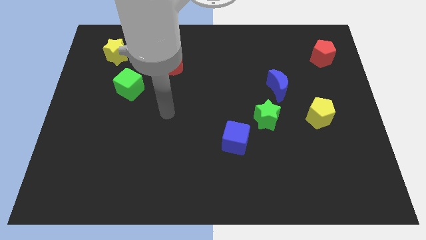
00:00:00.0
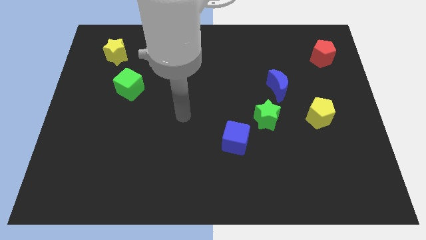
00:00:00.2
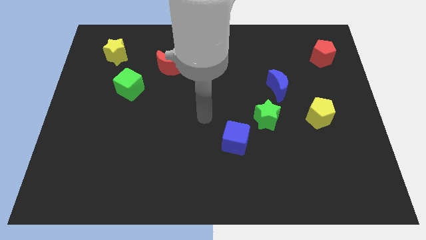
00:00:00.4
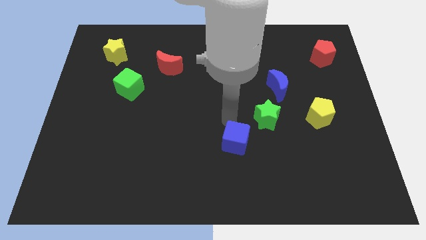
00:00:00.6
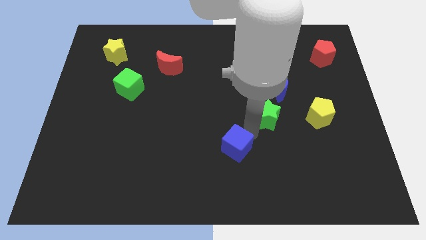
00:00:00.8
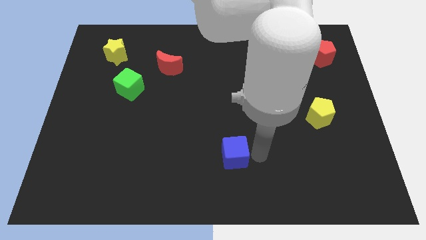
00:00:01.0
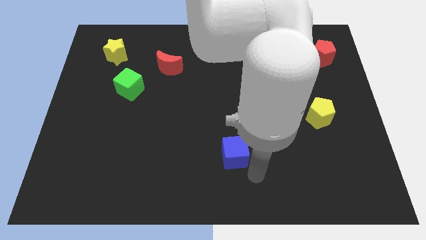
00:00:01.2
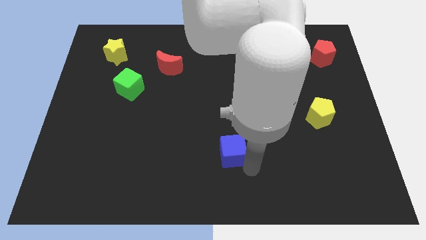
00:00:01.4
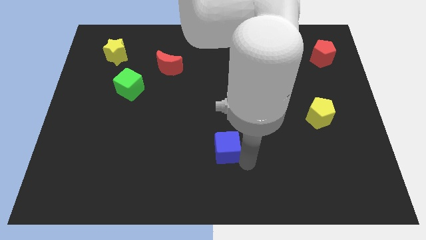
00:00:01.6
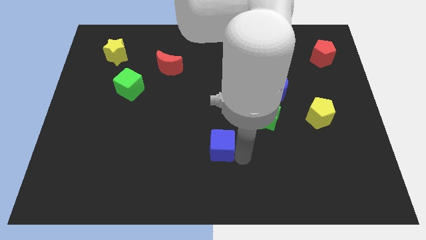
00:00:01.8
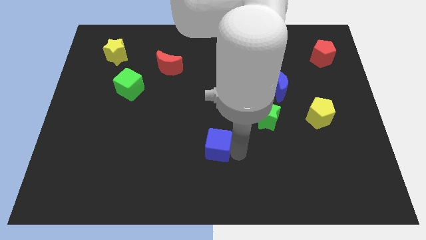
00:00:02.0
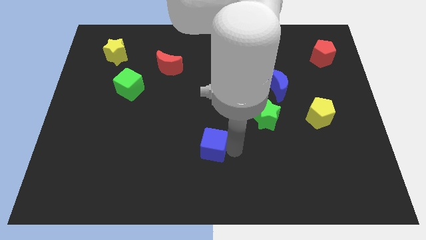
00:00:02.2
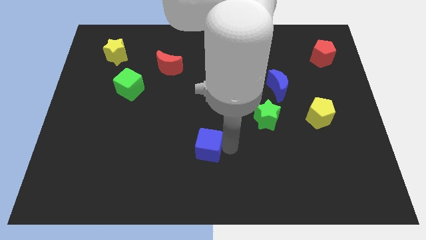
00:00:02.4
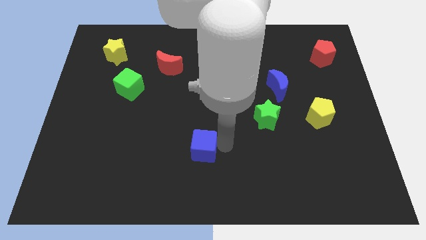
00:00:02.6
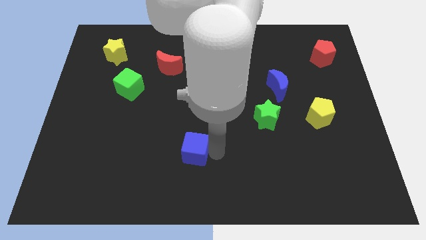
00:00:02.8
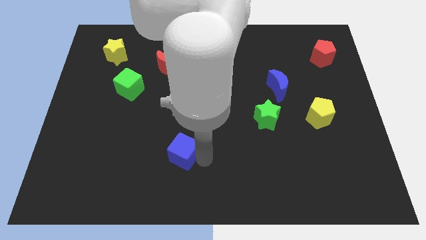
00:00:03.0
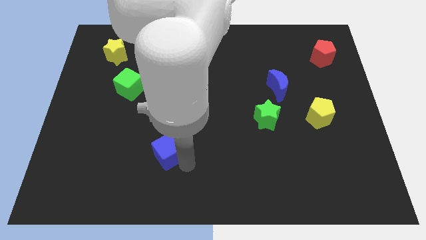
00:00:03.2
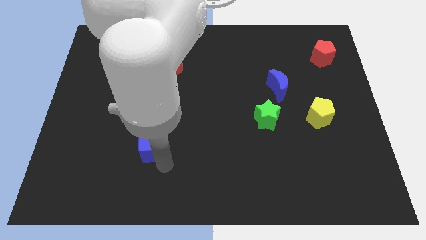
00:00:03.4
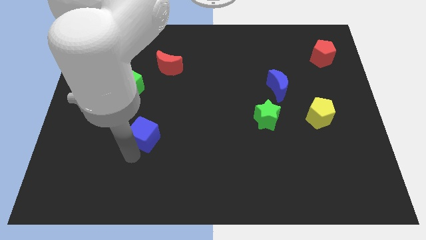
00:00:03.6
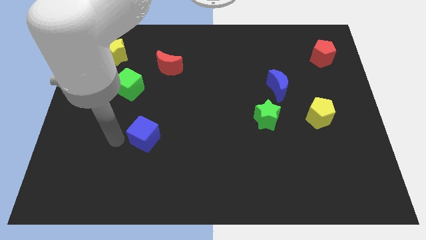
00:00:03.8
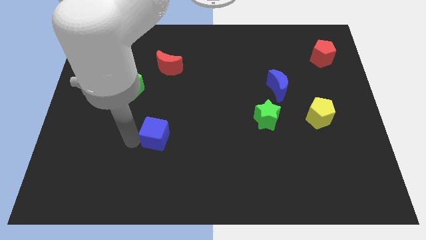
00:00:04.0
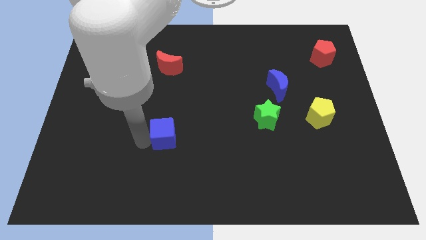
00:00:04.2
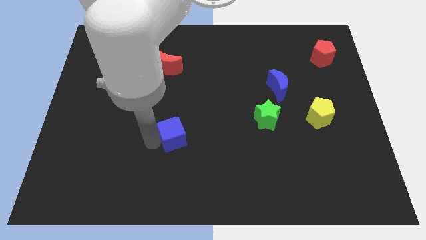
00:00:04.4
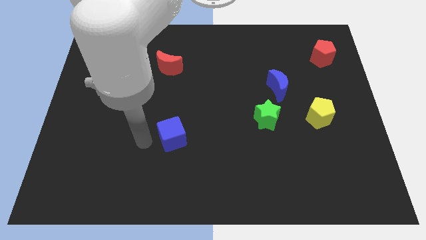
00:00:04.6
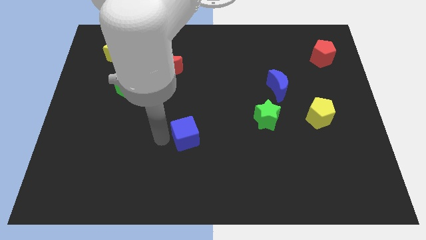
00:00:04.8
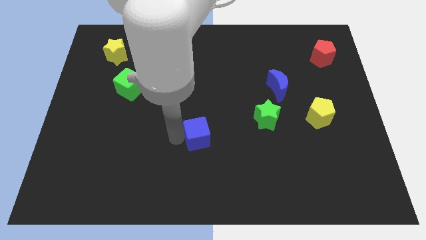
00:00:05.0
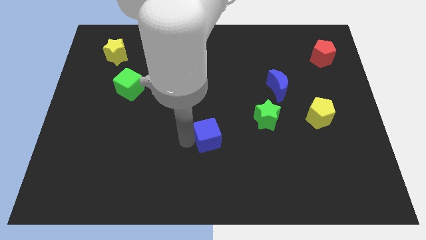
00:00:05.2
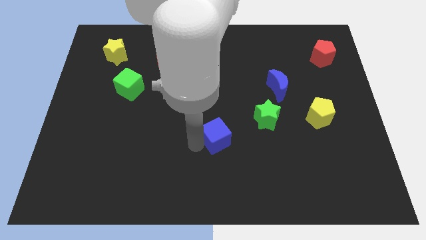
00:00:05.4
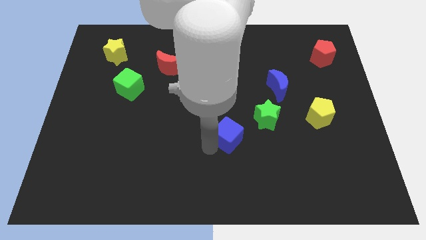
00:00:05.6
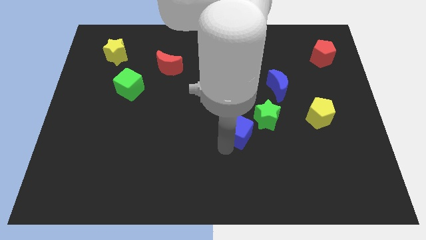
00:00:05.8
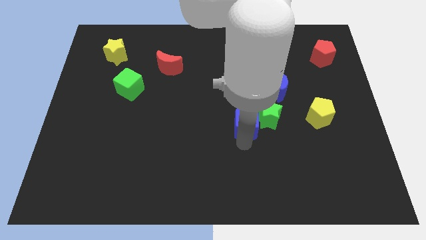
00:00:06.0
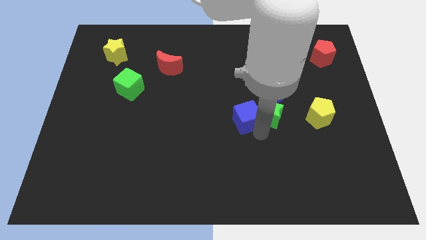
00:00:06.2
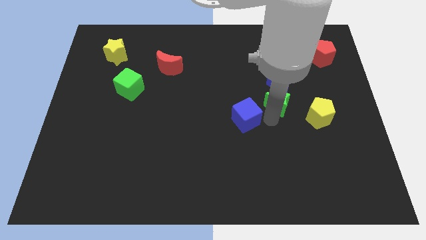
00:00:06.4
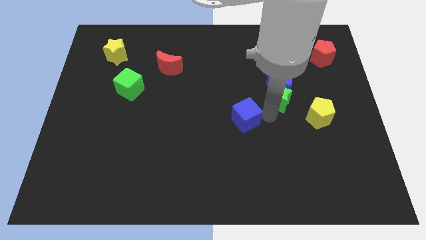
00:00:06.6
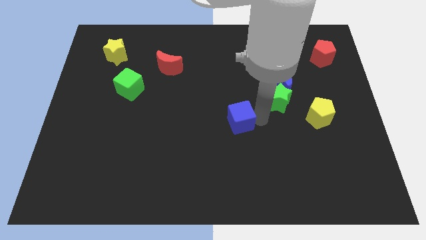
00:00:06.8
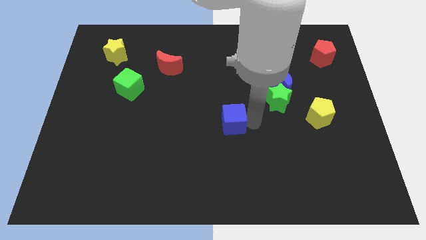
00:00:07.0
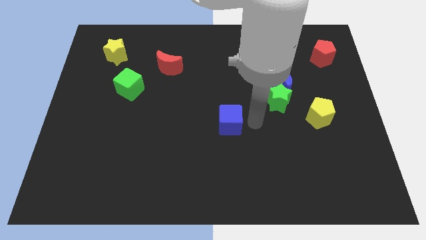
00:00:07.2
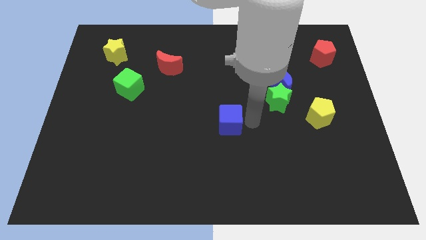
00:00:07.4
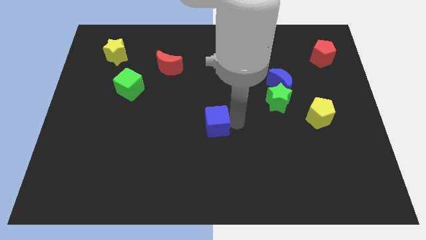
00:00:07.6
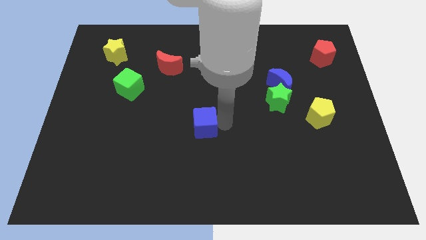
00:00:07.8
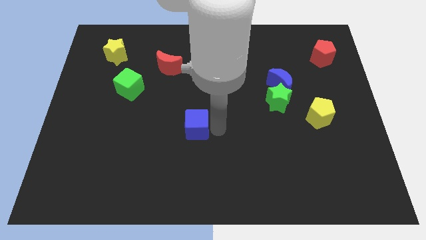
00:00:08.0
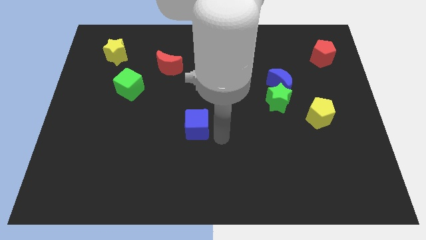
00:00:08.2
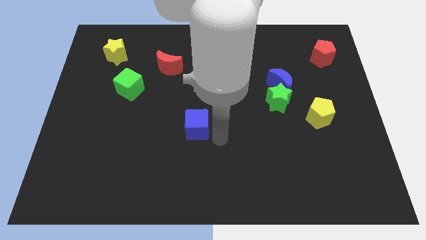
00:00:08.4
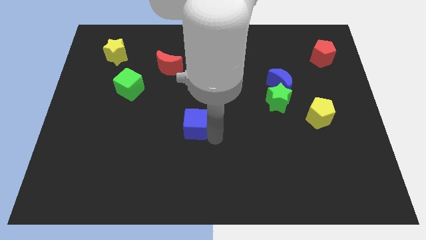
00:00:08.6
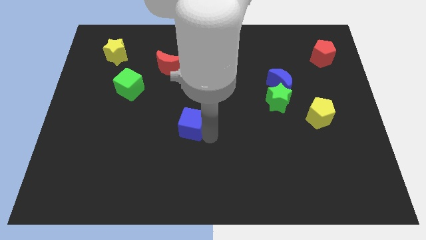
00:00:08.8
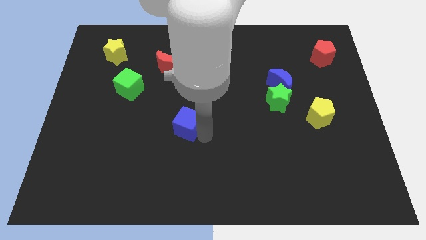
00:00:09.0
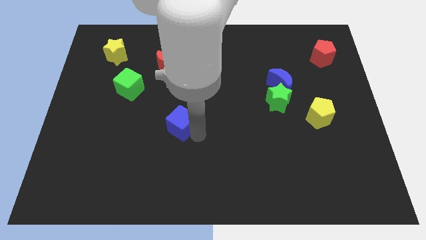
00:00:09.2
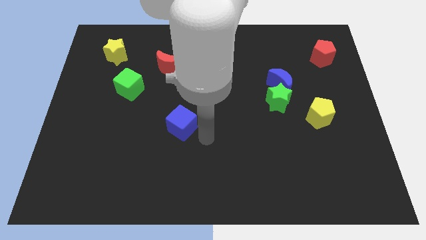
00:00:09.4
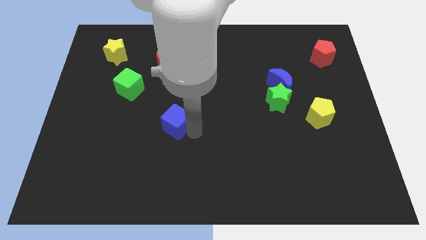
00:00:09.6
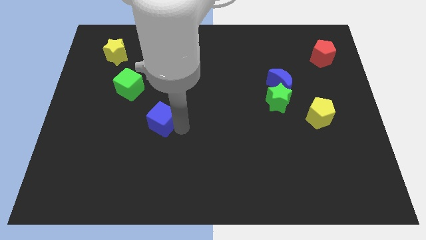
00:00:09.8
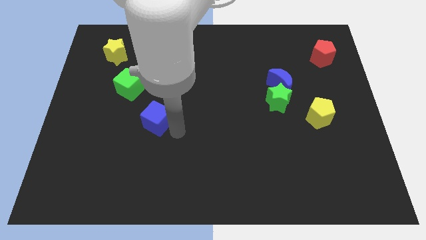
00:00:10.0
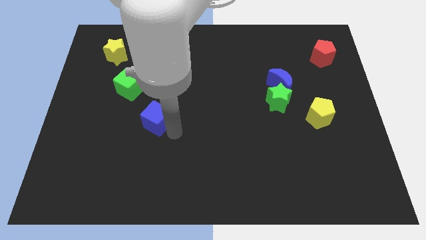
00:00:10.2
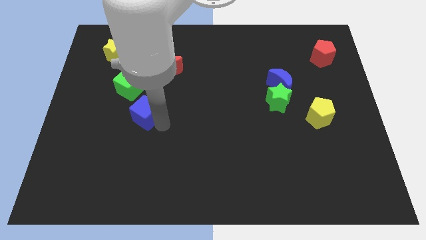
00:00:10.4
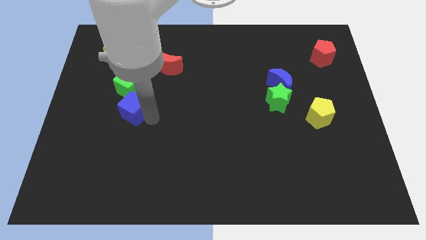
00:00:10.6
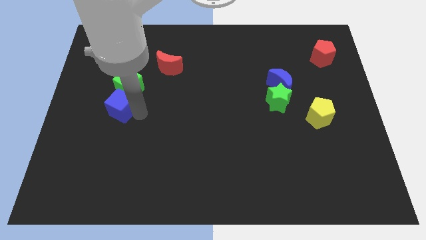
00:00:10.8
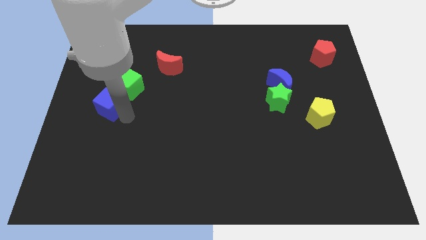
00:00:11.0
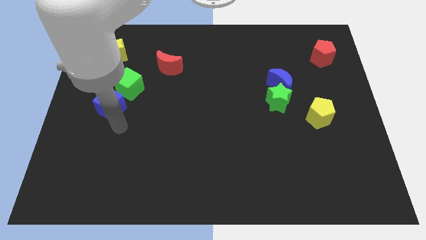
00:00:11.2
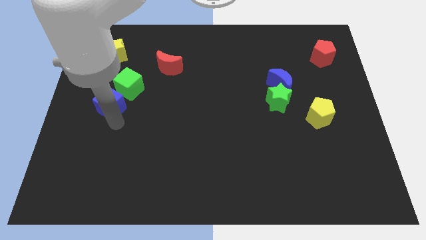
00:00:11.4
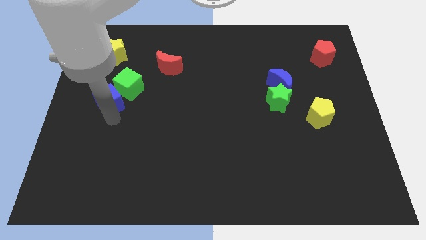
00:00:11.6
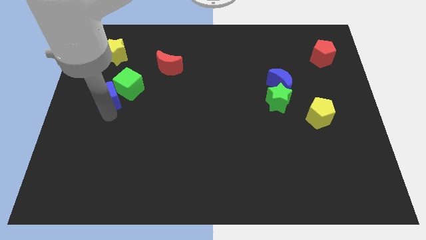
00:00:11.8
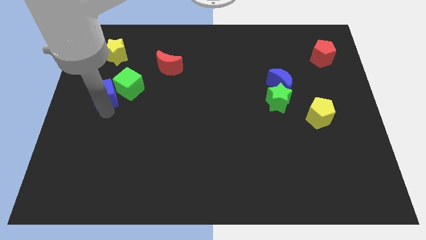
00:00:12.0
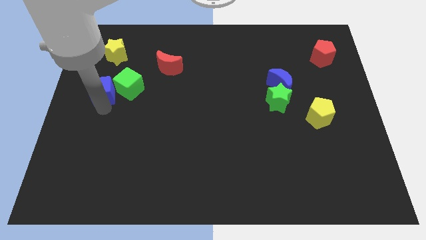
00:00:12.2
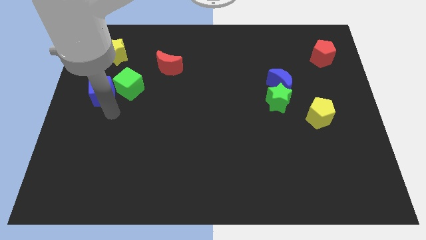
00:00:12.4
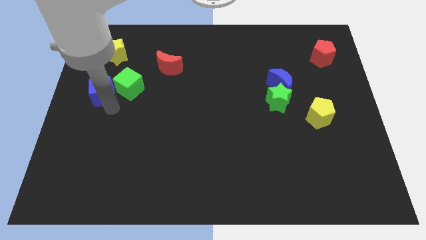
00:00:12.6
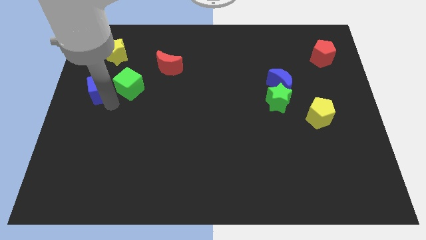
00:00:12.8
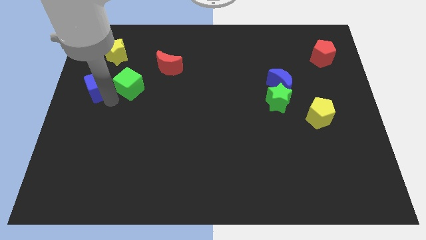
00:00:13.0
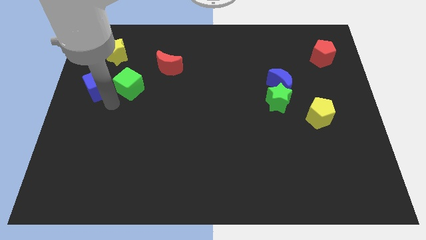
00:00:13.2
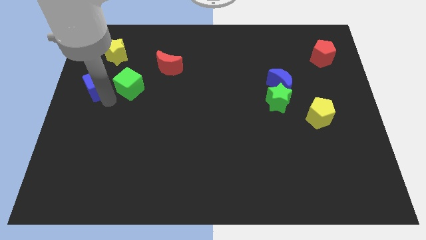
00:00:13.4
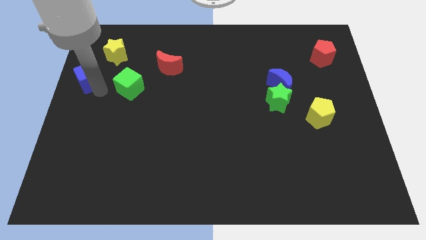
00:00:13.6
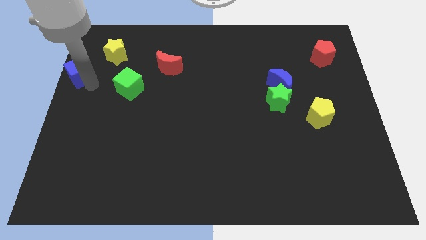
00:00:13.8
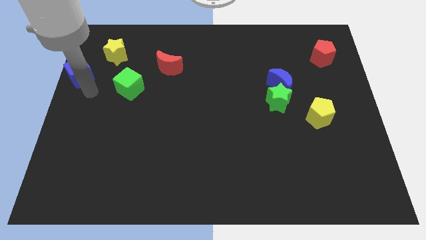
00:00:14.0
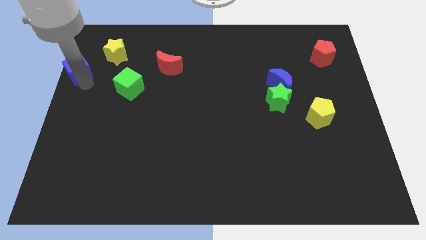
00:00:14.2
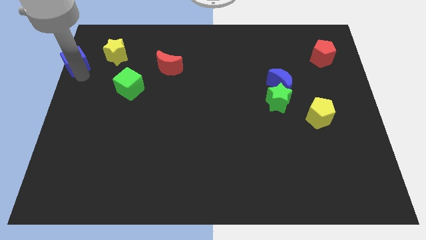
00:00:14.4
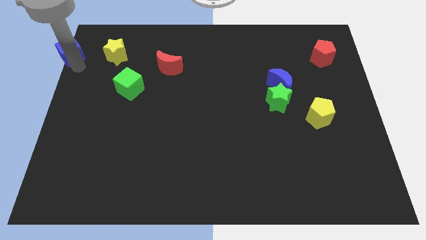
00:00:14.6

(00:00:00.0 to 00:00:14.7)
put the blue cube to the top left corner
